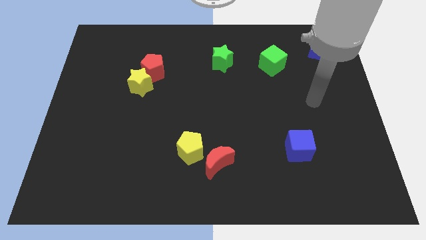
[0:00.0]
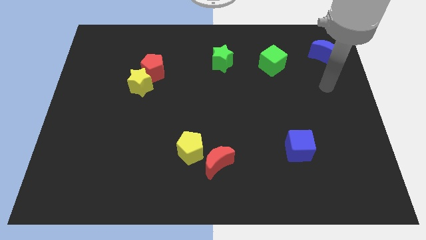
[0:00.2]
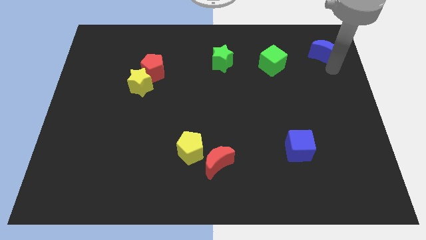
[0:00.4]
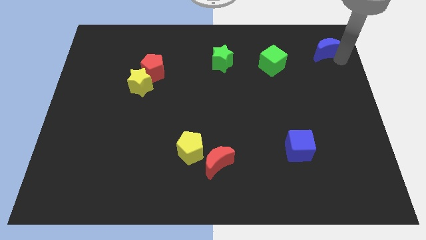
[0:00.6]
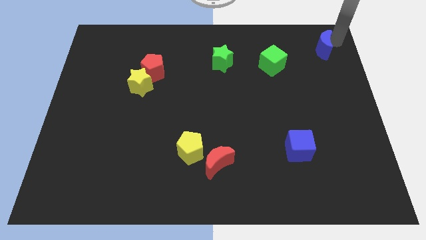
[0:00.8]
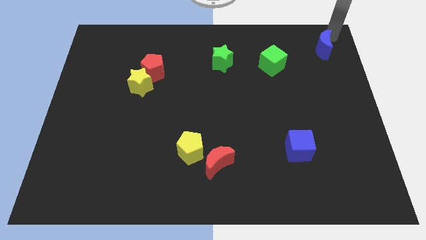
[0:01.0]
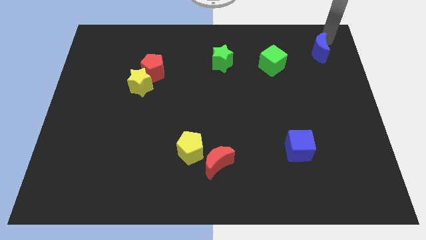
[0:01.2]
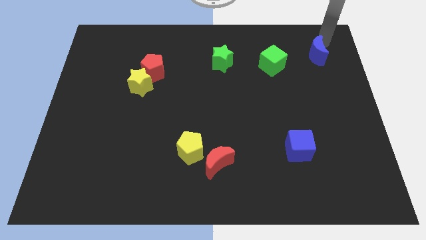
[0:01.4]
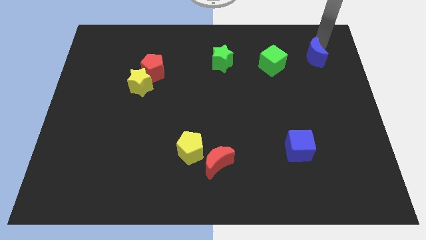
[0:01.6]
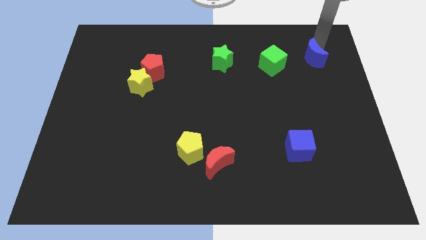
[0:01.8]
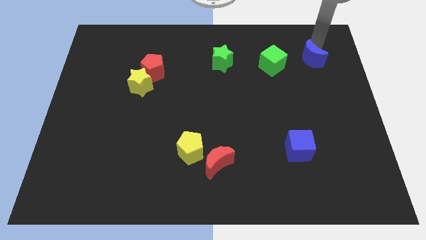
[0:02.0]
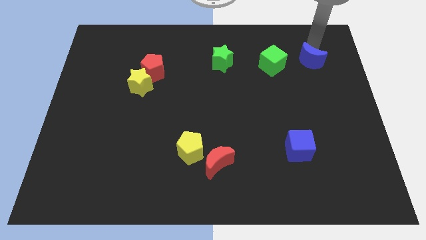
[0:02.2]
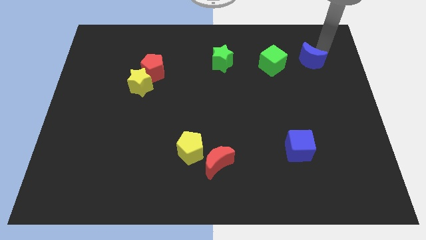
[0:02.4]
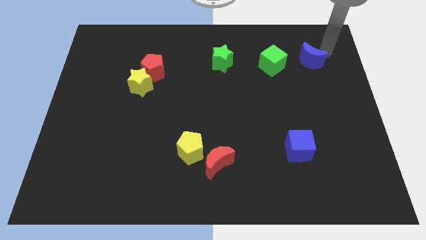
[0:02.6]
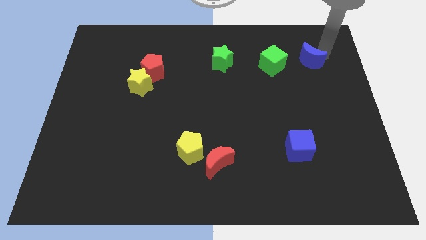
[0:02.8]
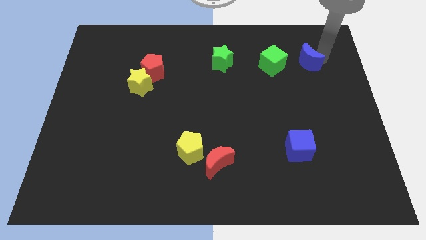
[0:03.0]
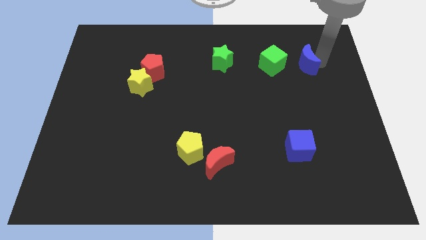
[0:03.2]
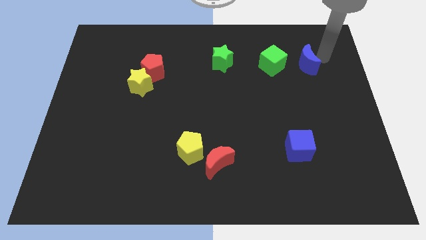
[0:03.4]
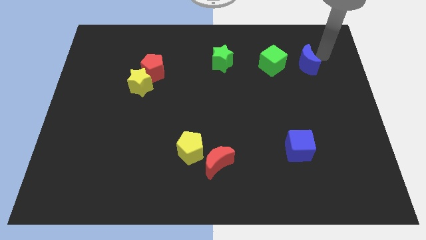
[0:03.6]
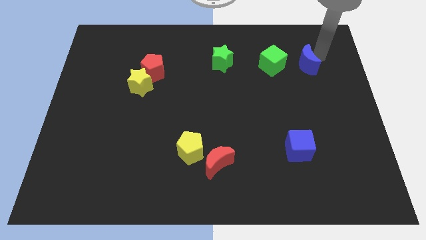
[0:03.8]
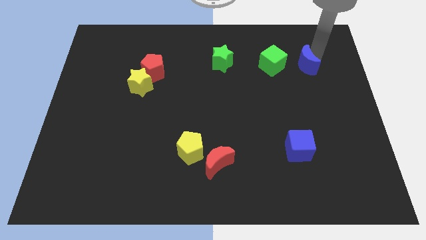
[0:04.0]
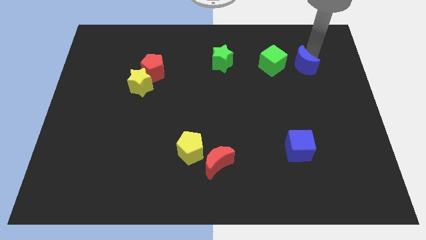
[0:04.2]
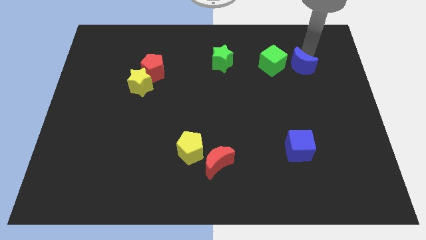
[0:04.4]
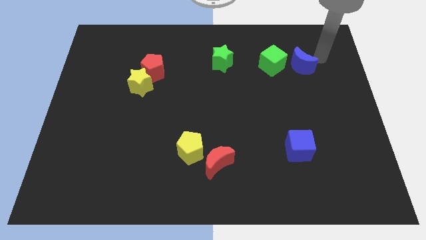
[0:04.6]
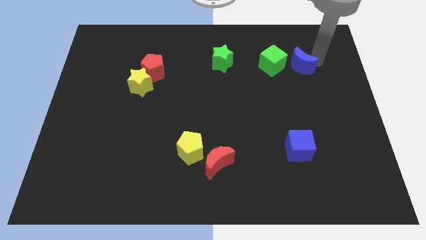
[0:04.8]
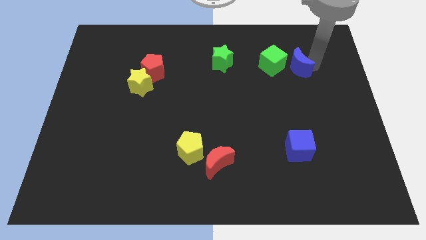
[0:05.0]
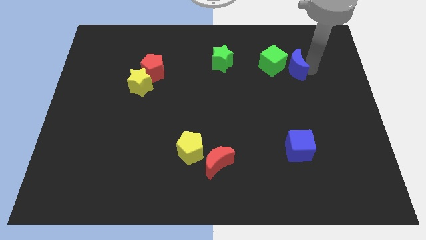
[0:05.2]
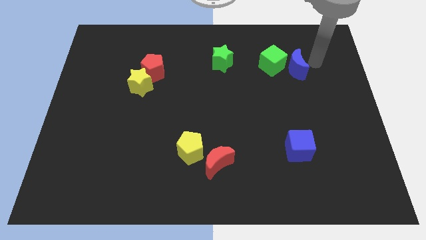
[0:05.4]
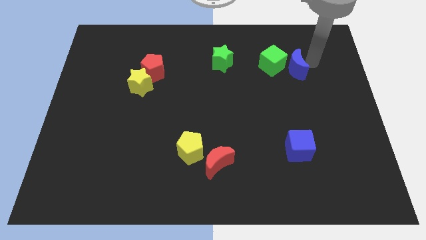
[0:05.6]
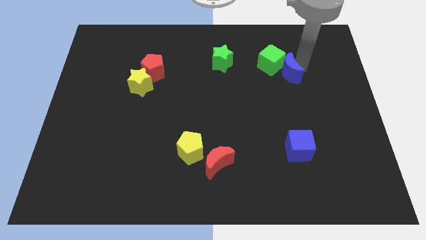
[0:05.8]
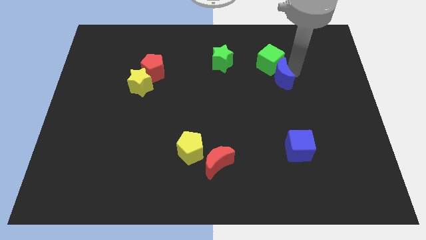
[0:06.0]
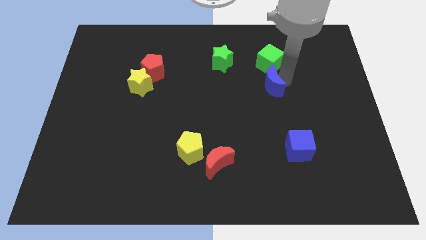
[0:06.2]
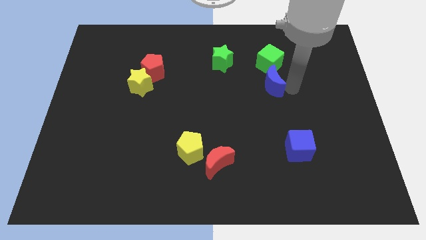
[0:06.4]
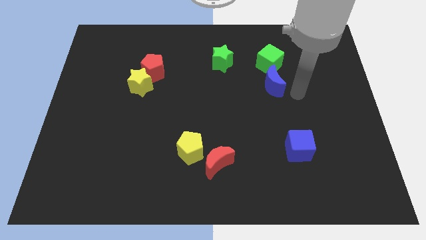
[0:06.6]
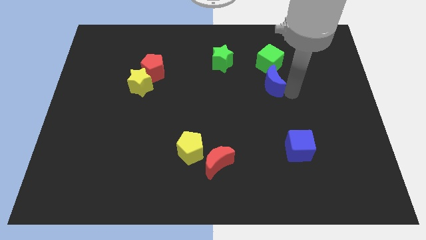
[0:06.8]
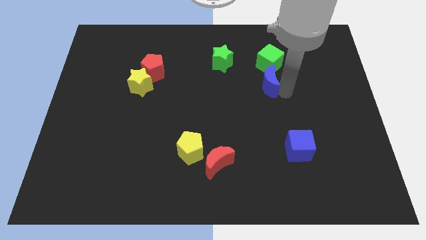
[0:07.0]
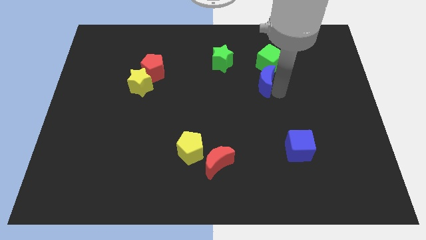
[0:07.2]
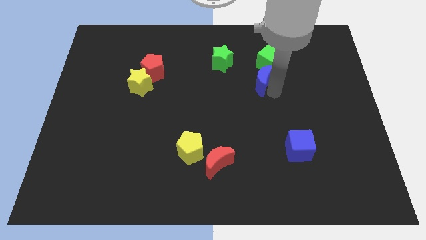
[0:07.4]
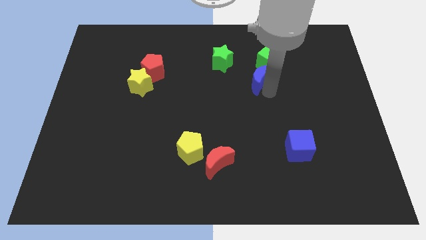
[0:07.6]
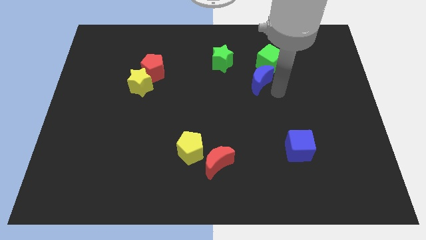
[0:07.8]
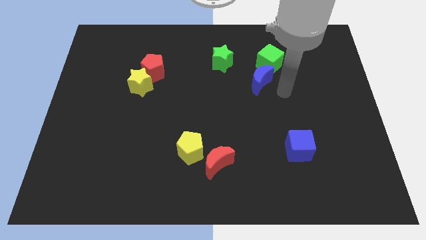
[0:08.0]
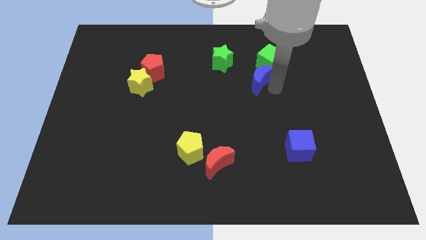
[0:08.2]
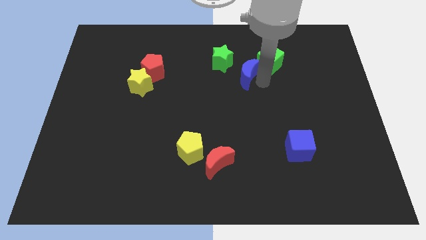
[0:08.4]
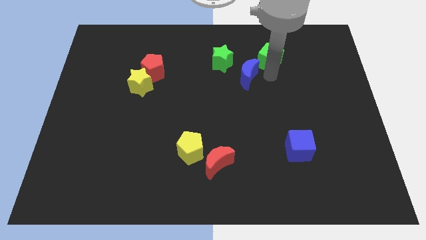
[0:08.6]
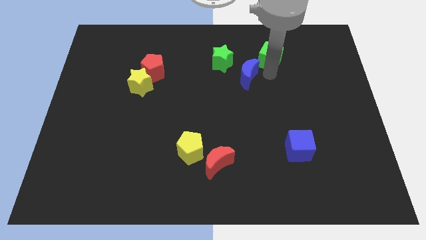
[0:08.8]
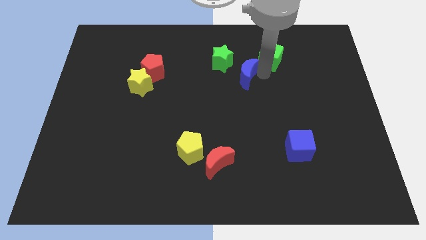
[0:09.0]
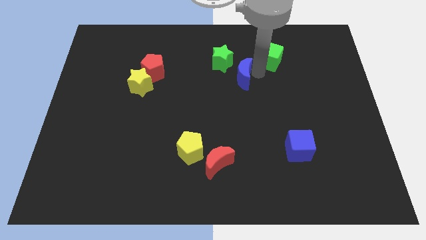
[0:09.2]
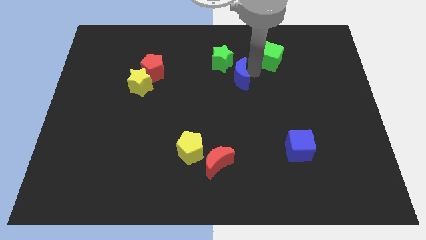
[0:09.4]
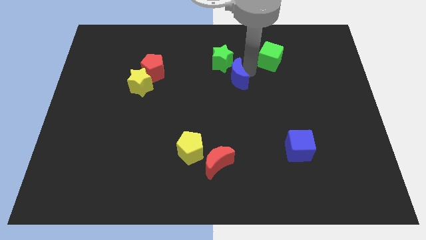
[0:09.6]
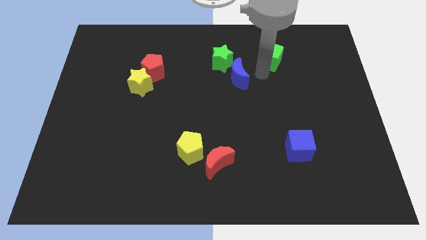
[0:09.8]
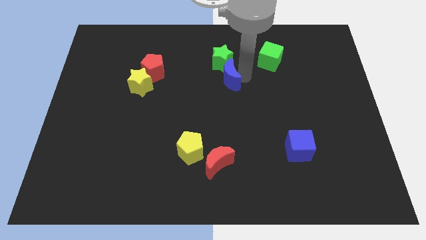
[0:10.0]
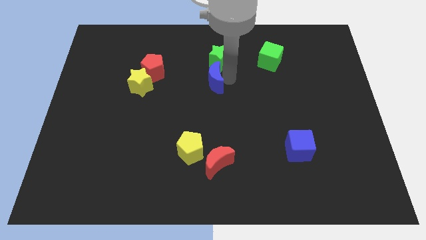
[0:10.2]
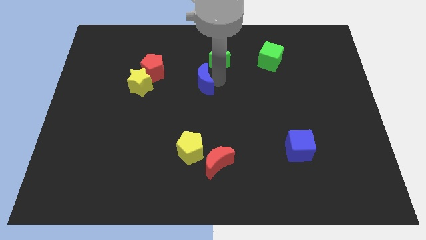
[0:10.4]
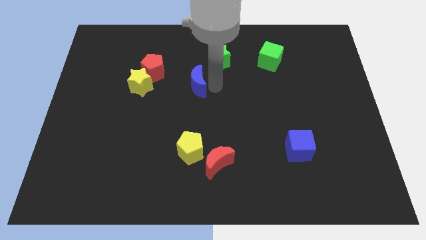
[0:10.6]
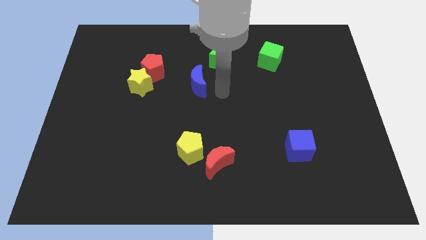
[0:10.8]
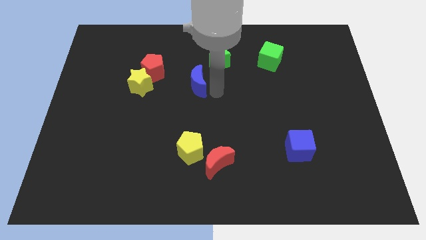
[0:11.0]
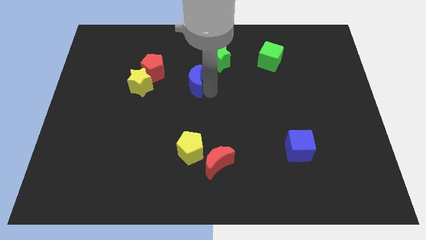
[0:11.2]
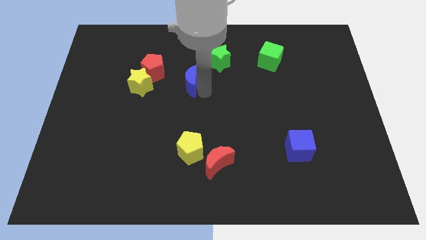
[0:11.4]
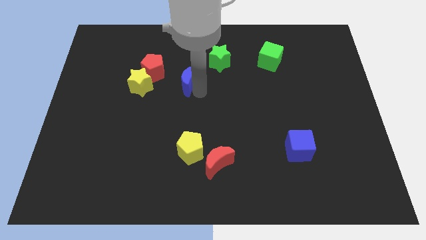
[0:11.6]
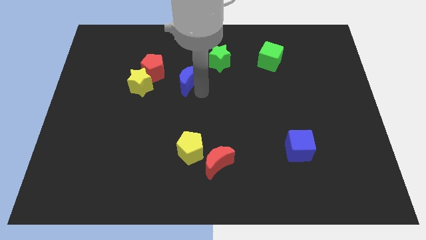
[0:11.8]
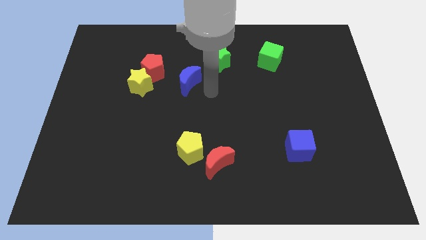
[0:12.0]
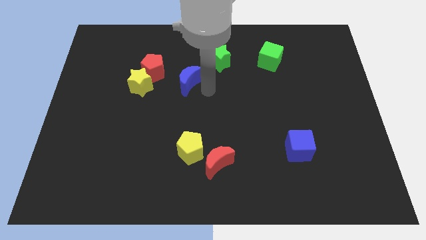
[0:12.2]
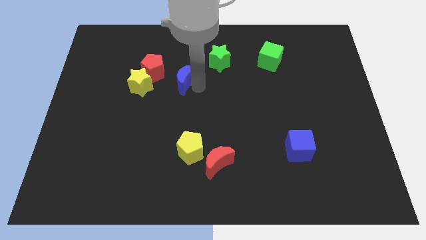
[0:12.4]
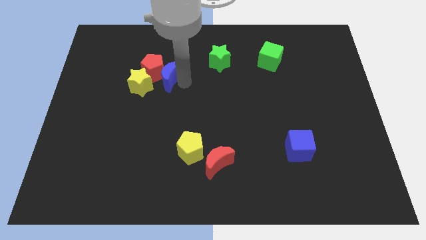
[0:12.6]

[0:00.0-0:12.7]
push the blue moon to the red pentagon

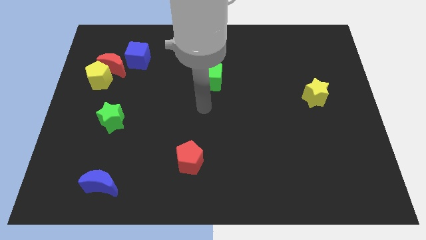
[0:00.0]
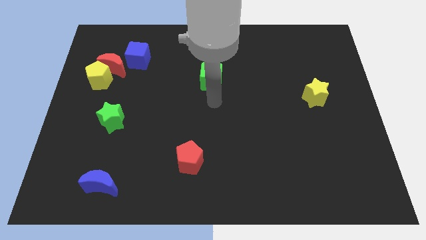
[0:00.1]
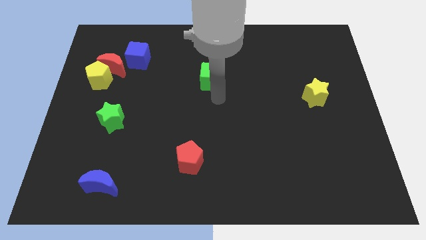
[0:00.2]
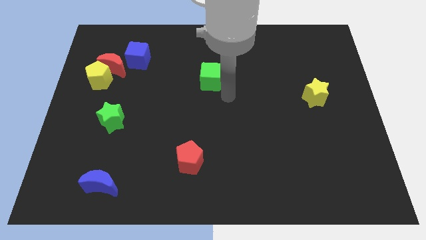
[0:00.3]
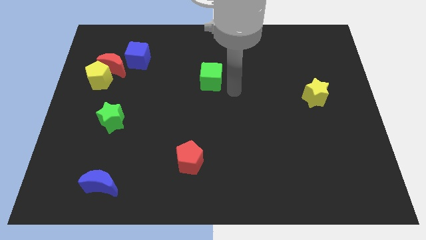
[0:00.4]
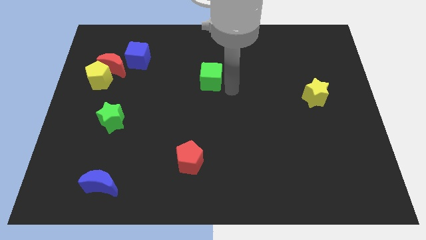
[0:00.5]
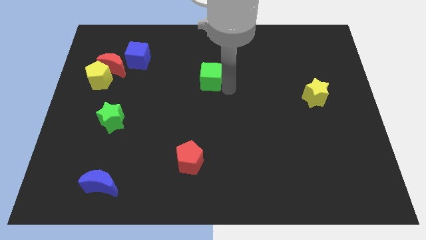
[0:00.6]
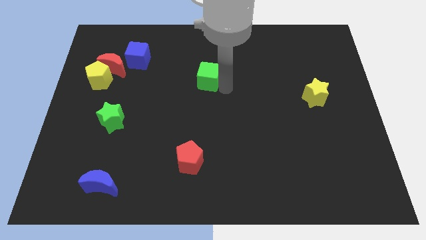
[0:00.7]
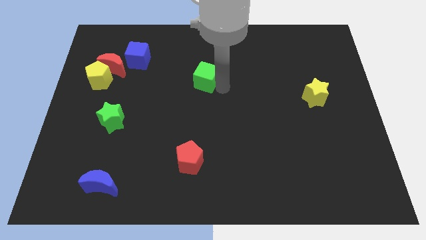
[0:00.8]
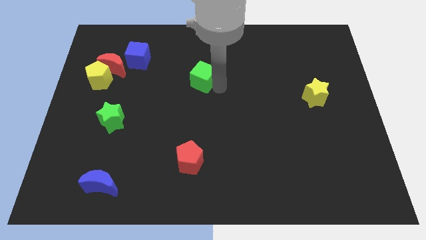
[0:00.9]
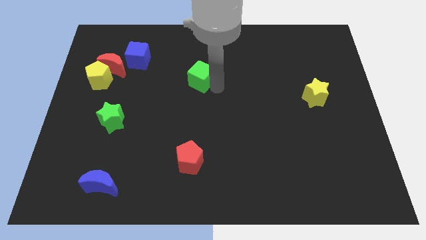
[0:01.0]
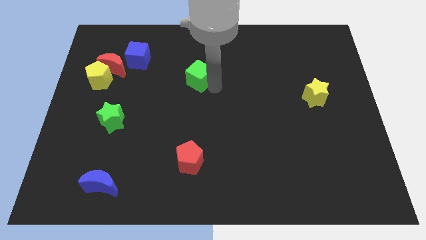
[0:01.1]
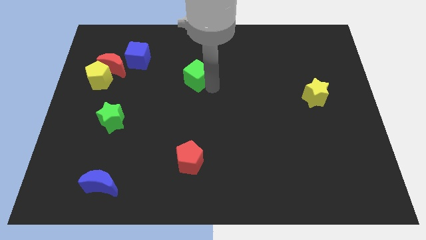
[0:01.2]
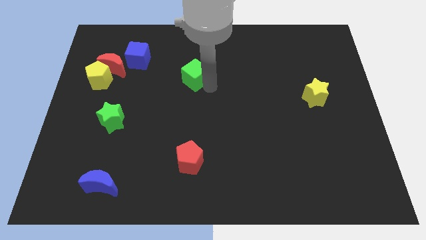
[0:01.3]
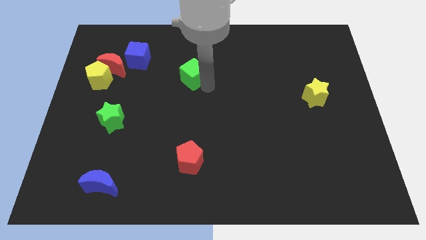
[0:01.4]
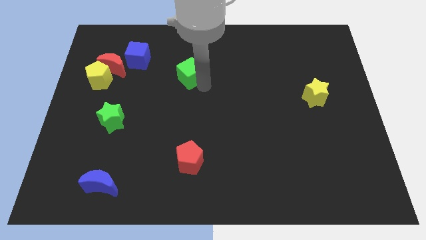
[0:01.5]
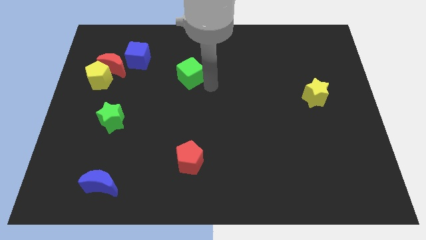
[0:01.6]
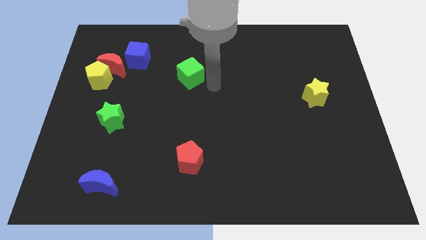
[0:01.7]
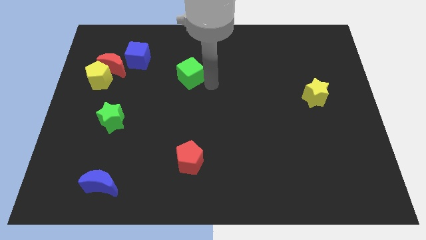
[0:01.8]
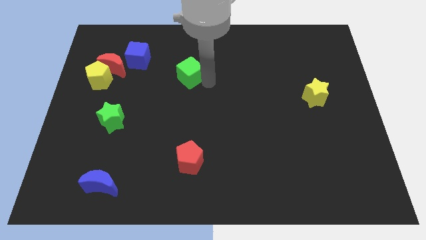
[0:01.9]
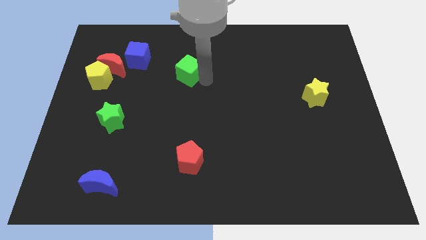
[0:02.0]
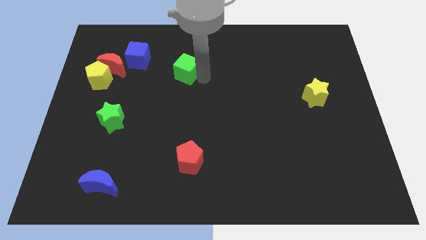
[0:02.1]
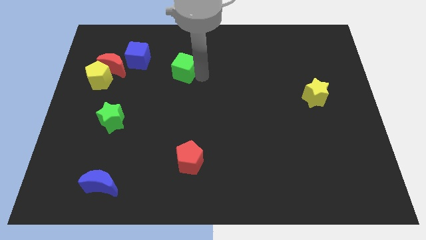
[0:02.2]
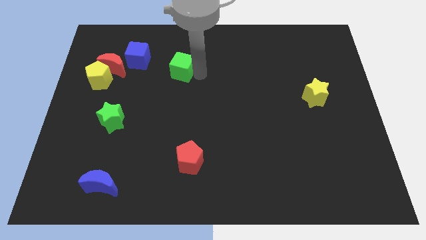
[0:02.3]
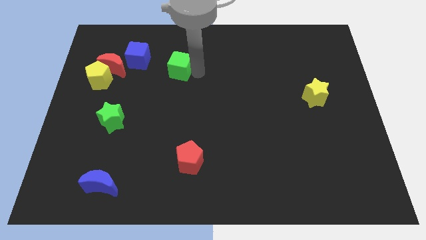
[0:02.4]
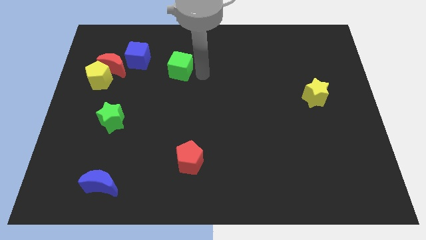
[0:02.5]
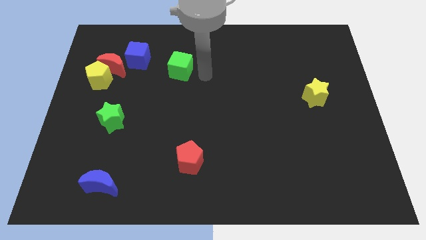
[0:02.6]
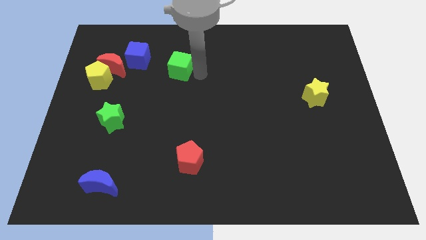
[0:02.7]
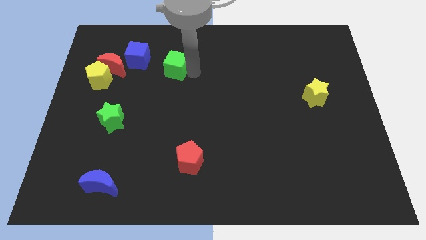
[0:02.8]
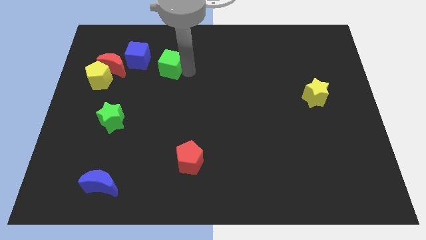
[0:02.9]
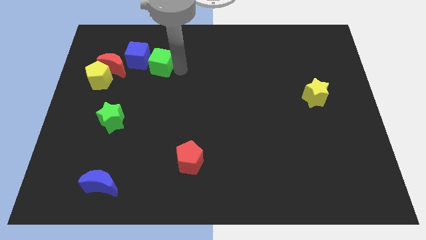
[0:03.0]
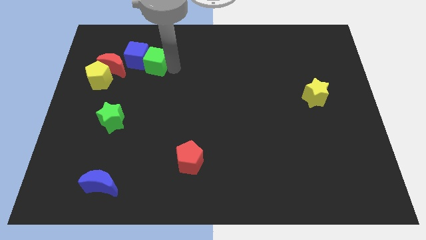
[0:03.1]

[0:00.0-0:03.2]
push the green cube towards the blue cube
